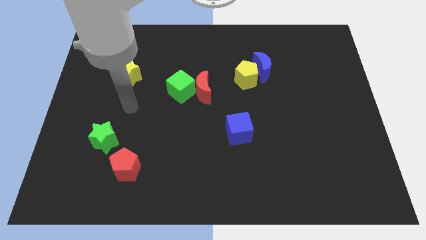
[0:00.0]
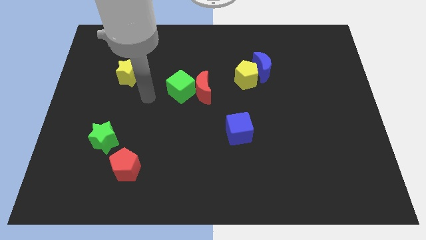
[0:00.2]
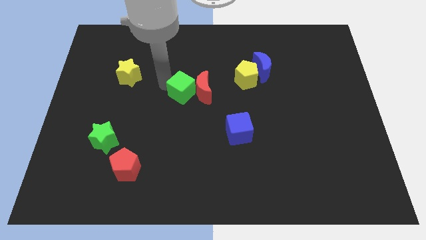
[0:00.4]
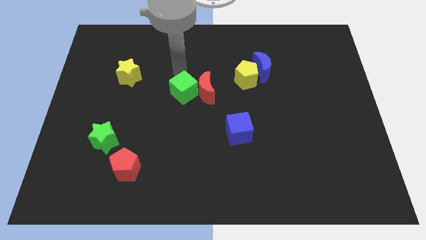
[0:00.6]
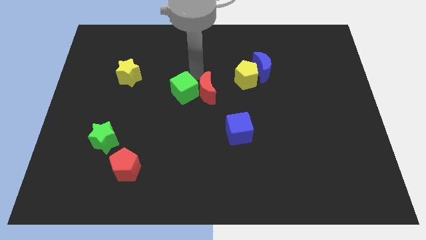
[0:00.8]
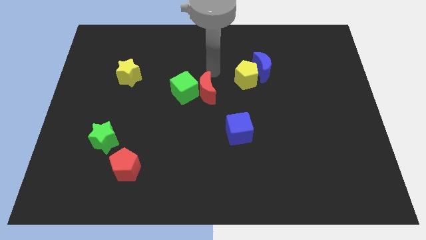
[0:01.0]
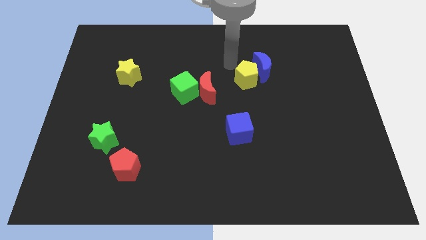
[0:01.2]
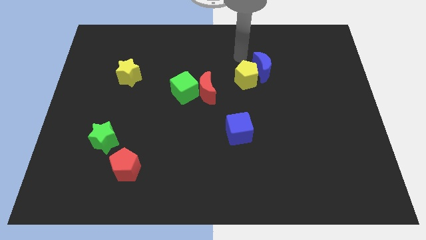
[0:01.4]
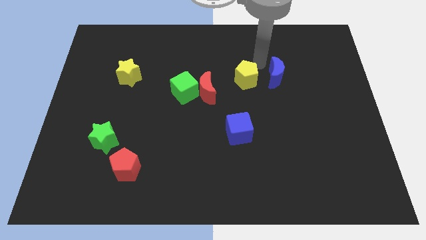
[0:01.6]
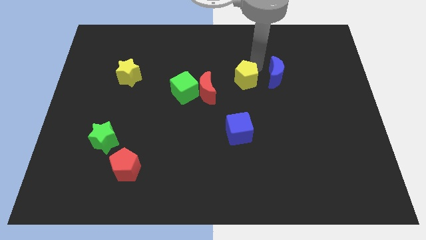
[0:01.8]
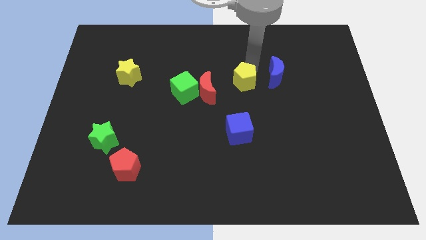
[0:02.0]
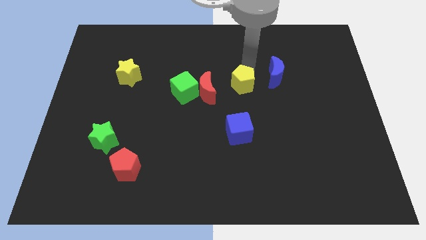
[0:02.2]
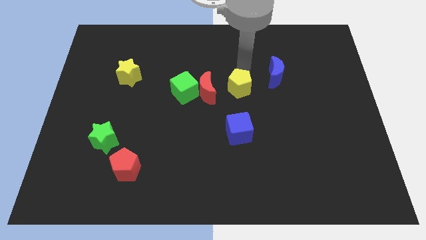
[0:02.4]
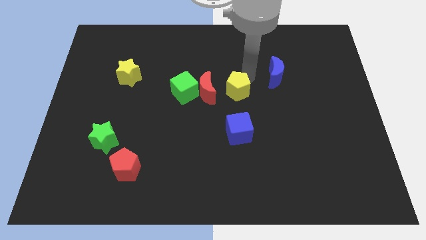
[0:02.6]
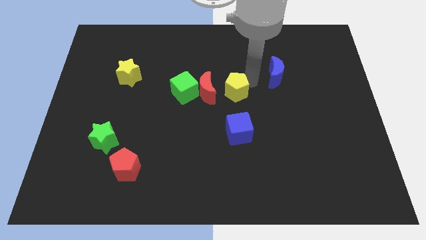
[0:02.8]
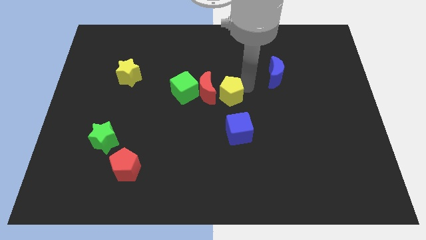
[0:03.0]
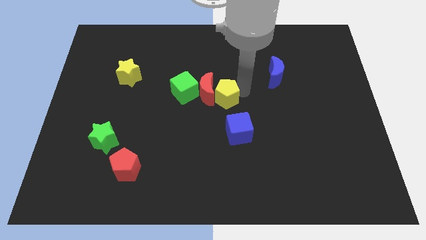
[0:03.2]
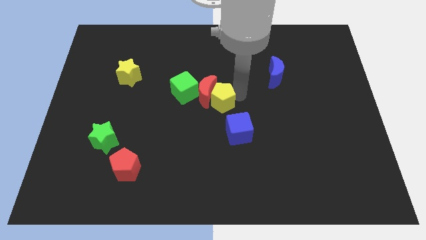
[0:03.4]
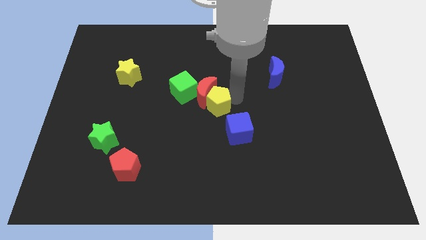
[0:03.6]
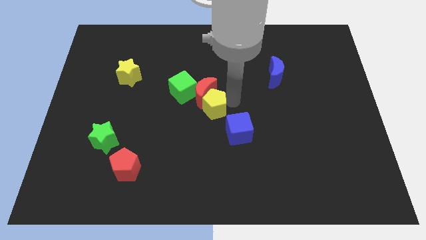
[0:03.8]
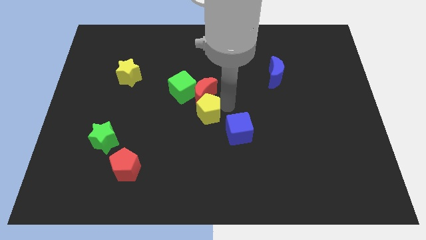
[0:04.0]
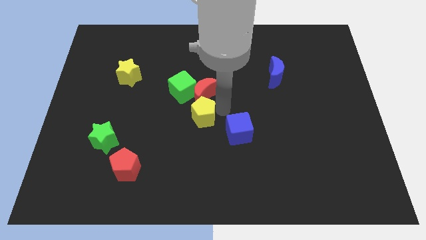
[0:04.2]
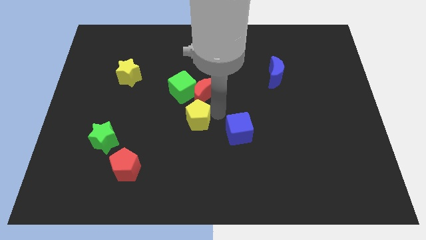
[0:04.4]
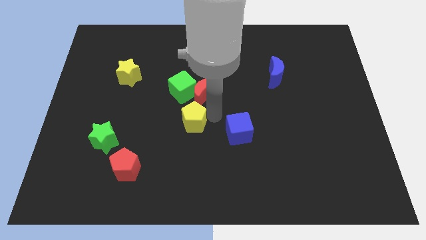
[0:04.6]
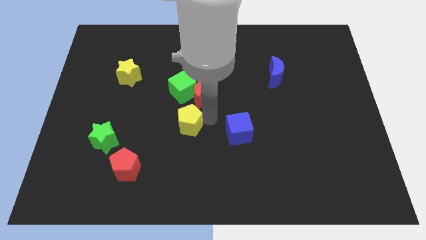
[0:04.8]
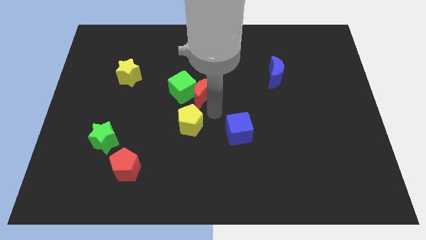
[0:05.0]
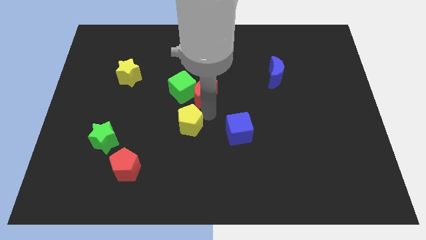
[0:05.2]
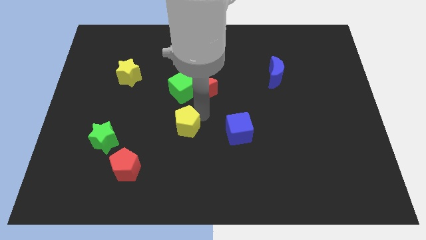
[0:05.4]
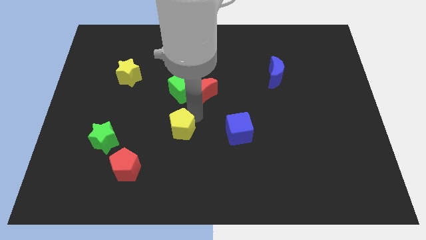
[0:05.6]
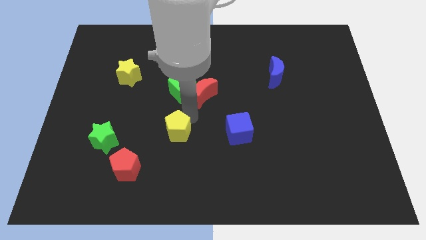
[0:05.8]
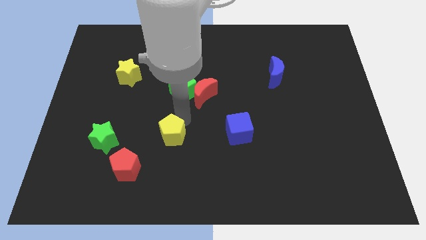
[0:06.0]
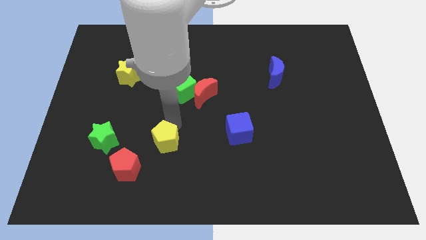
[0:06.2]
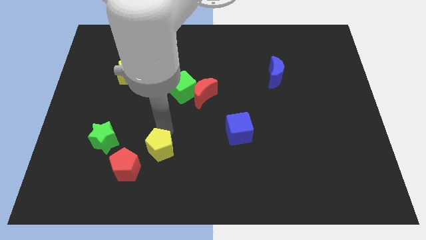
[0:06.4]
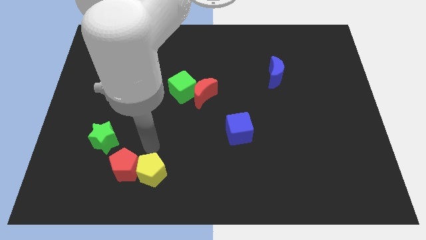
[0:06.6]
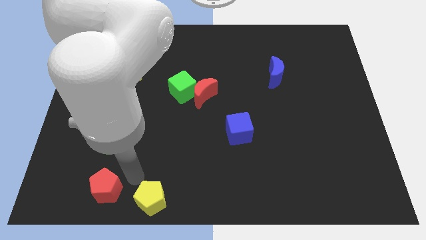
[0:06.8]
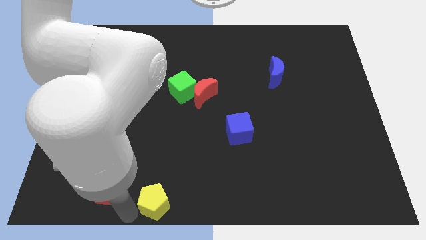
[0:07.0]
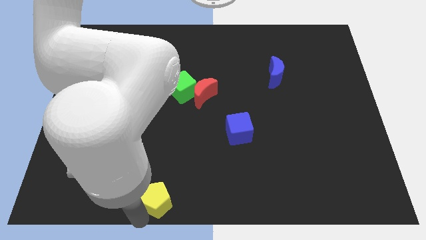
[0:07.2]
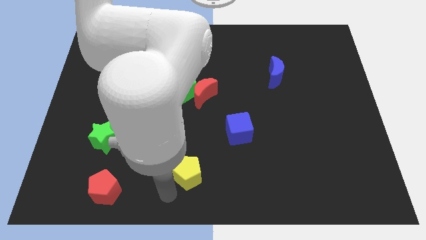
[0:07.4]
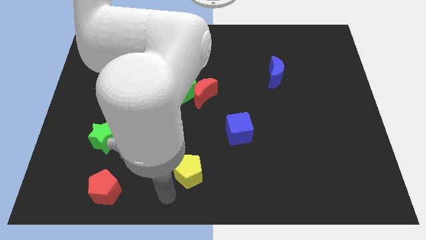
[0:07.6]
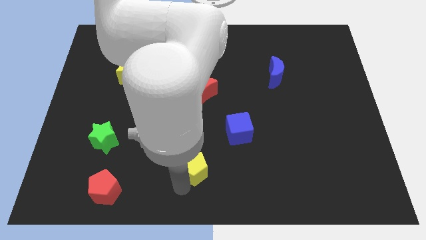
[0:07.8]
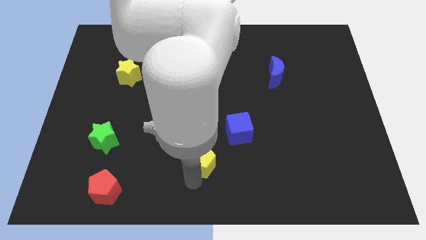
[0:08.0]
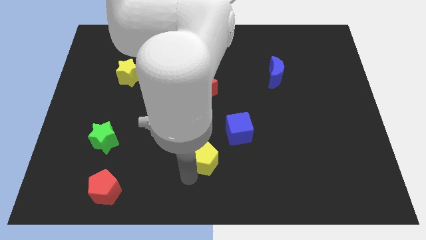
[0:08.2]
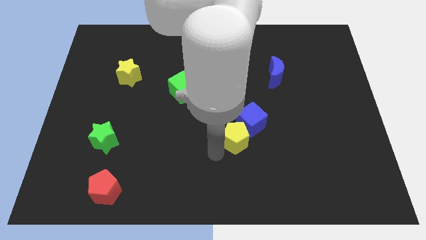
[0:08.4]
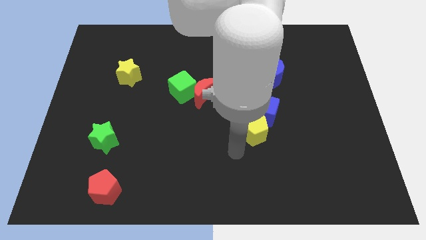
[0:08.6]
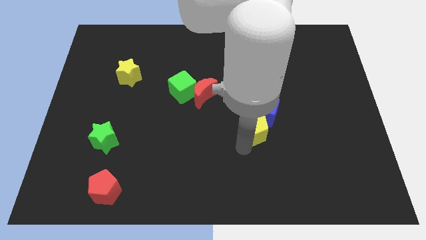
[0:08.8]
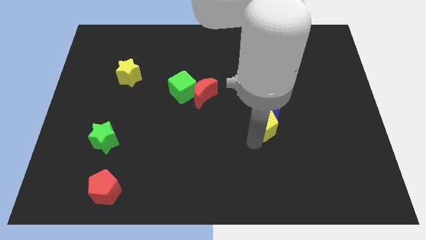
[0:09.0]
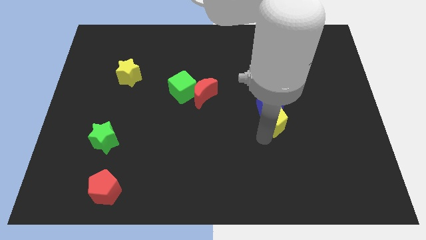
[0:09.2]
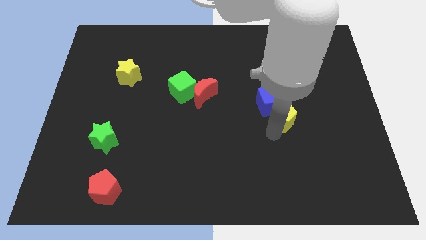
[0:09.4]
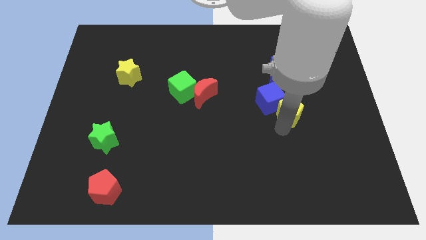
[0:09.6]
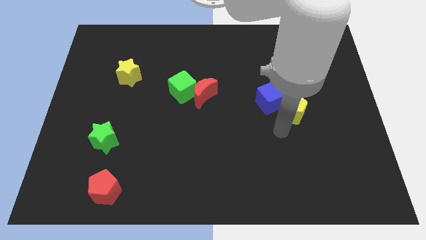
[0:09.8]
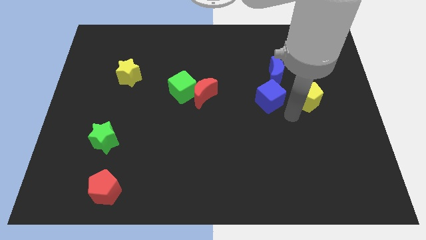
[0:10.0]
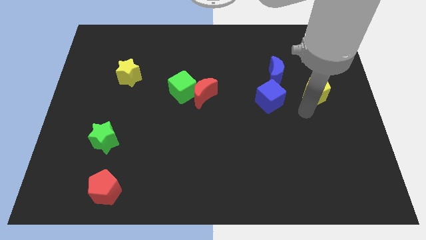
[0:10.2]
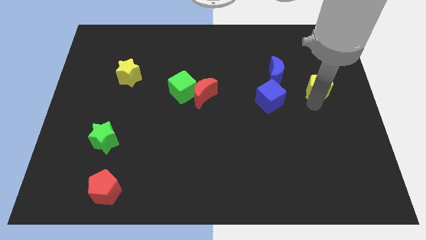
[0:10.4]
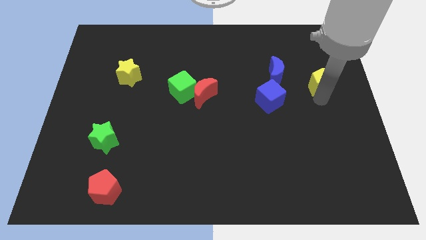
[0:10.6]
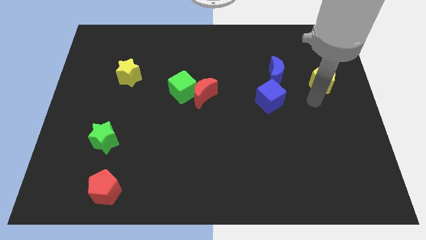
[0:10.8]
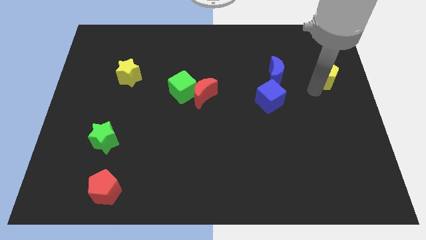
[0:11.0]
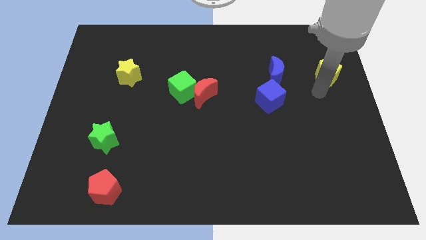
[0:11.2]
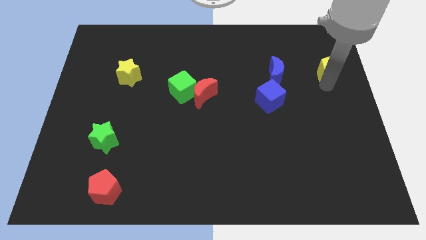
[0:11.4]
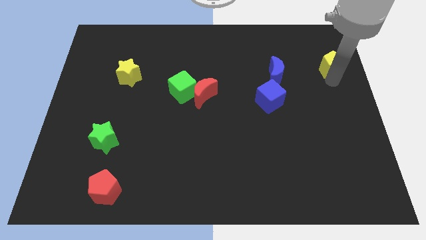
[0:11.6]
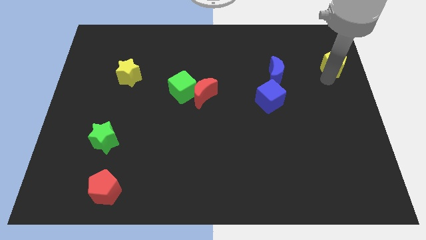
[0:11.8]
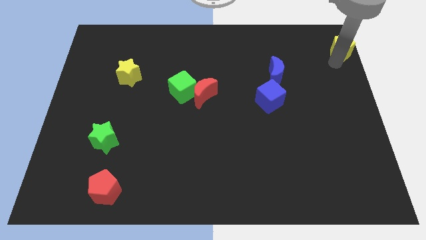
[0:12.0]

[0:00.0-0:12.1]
push the yellow pentagon to the top right of the board
